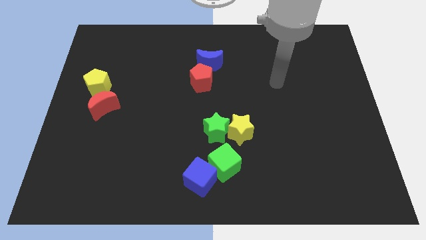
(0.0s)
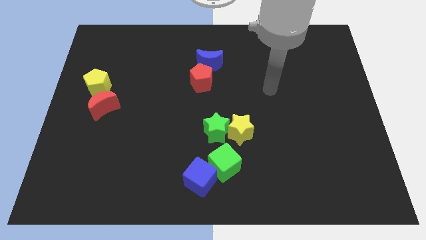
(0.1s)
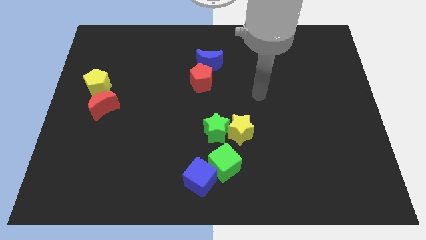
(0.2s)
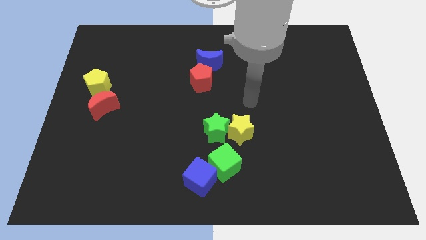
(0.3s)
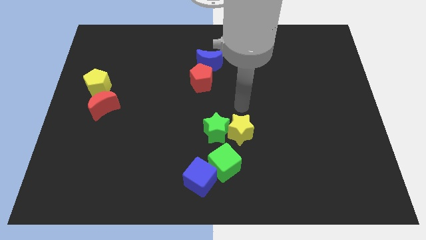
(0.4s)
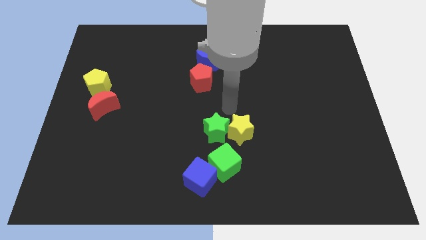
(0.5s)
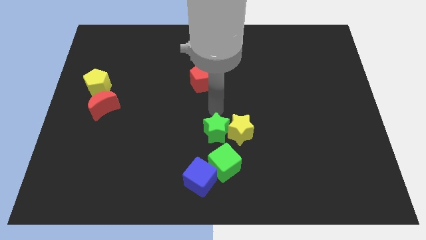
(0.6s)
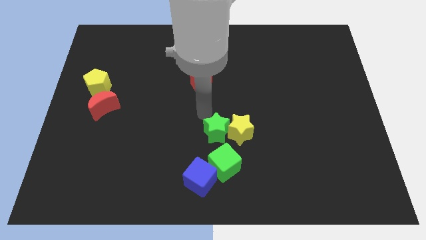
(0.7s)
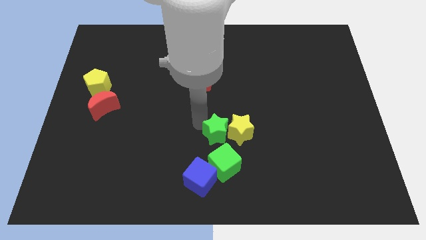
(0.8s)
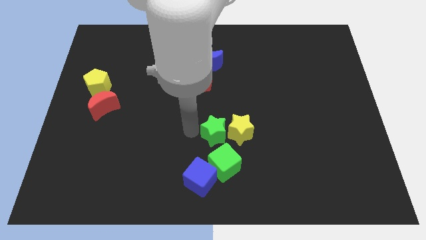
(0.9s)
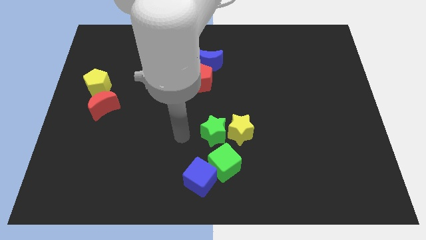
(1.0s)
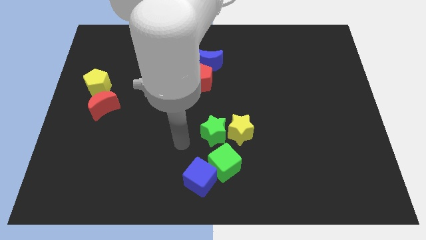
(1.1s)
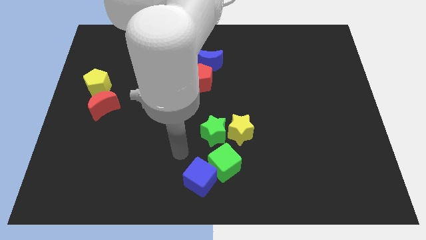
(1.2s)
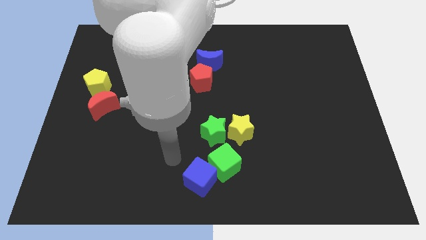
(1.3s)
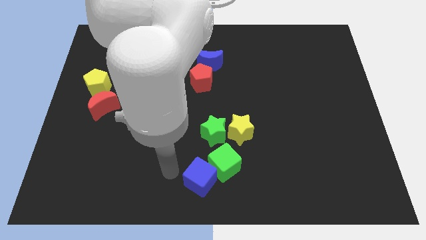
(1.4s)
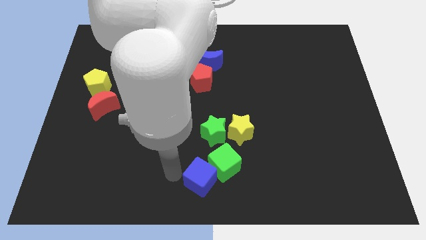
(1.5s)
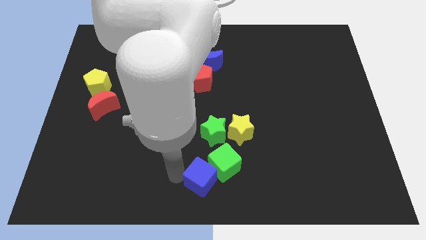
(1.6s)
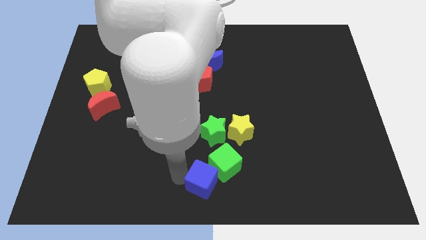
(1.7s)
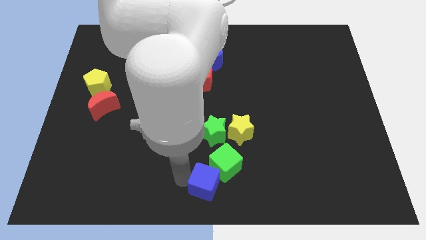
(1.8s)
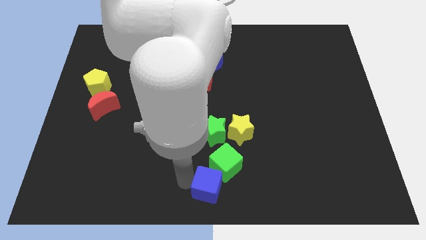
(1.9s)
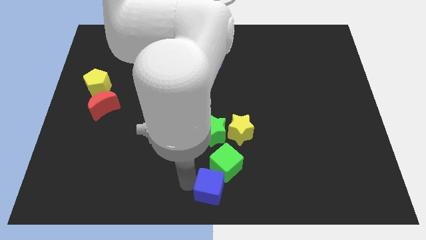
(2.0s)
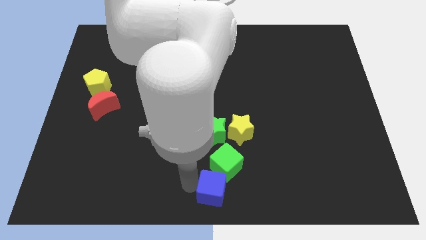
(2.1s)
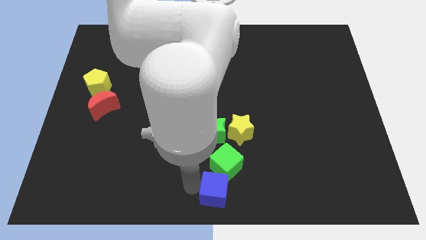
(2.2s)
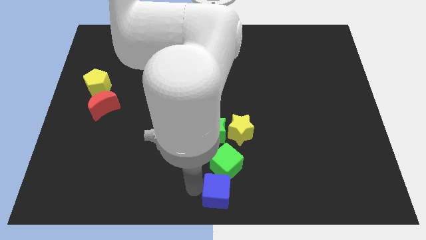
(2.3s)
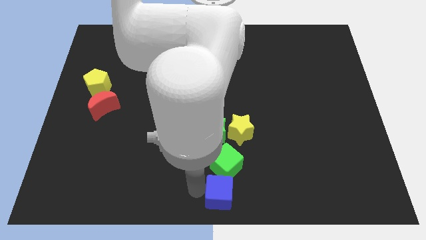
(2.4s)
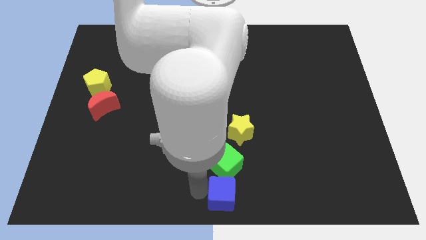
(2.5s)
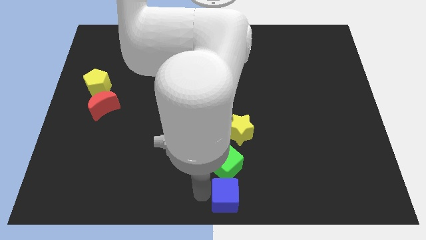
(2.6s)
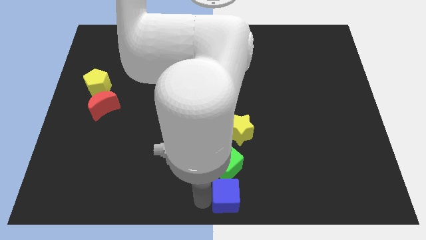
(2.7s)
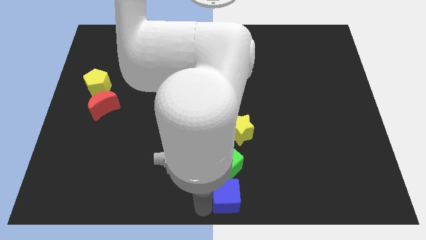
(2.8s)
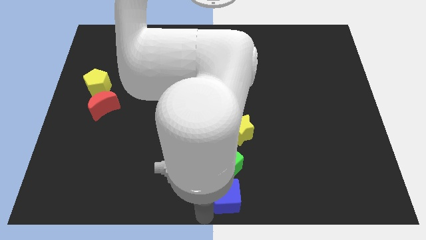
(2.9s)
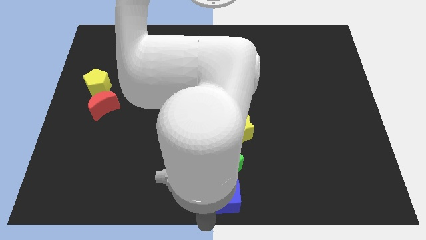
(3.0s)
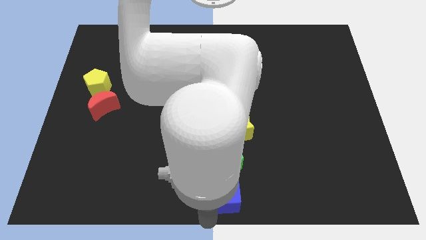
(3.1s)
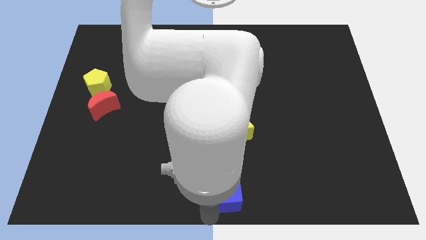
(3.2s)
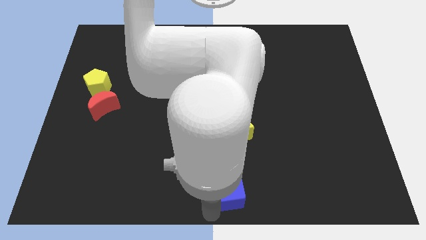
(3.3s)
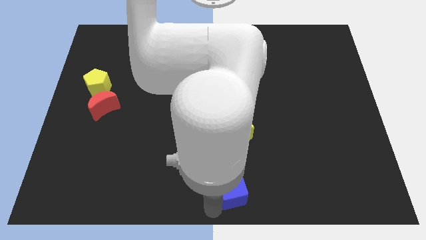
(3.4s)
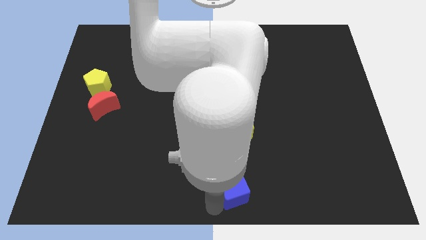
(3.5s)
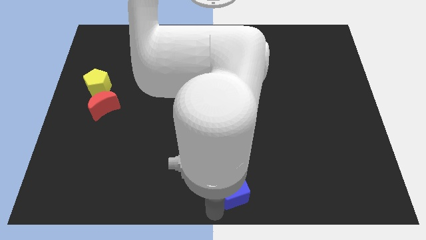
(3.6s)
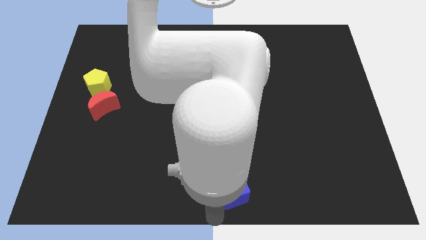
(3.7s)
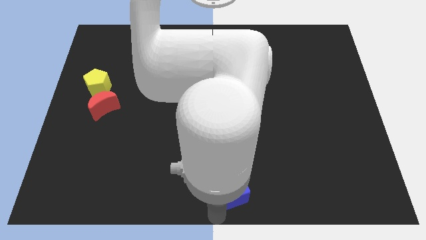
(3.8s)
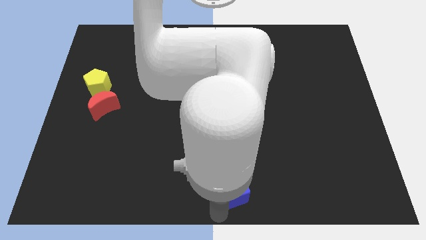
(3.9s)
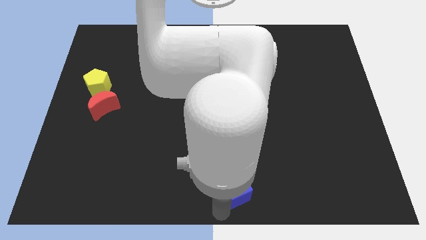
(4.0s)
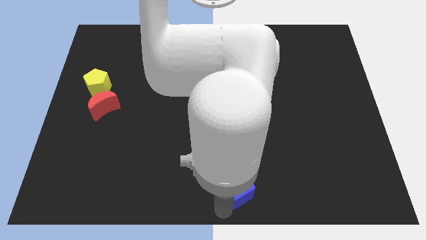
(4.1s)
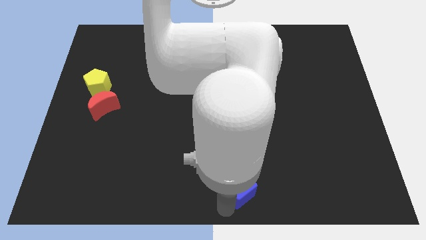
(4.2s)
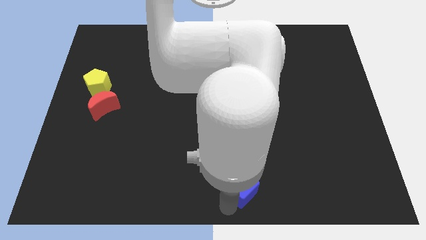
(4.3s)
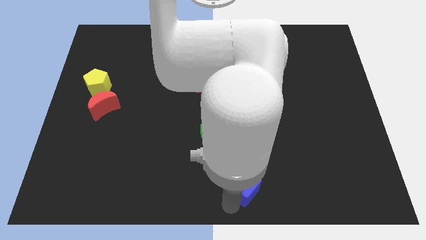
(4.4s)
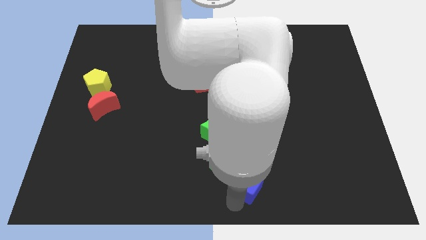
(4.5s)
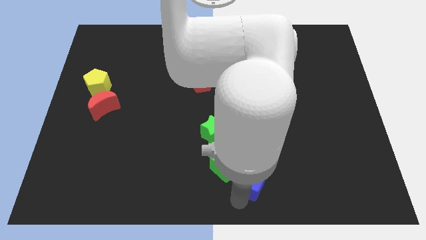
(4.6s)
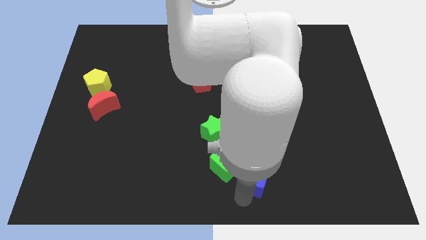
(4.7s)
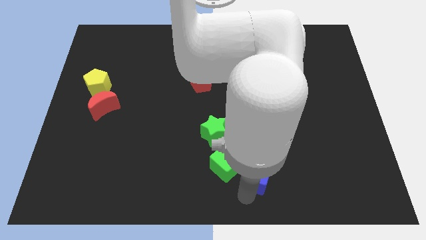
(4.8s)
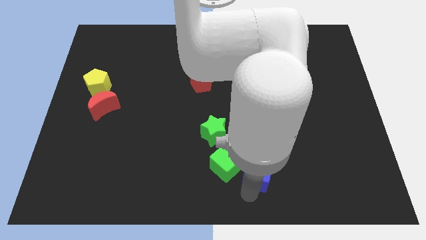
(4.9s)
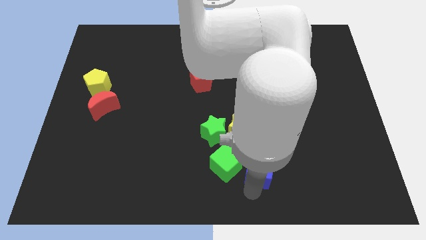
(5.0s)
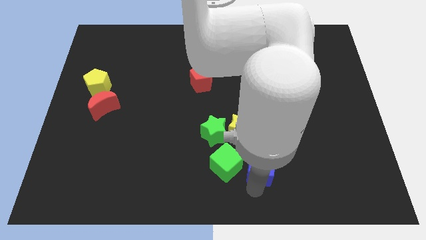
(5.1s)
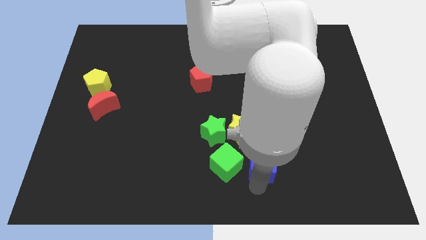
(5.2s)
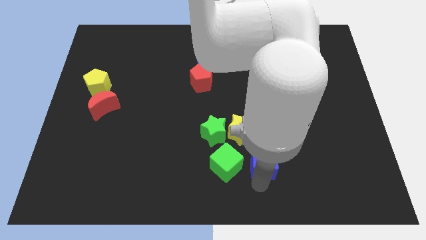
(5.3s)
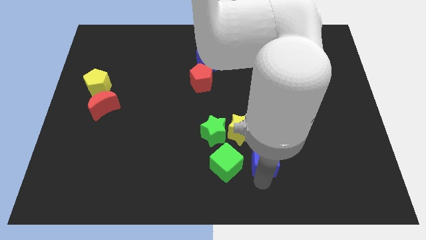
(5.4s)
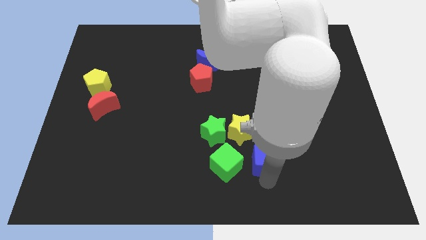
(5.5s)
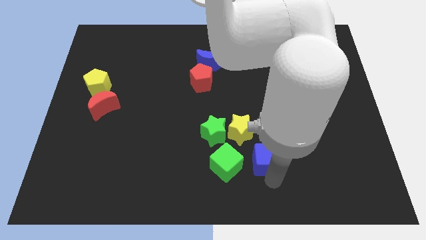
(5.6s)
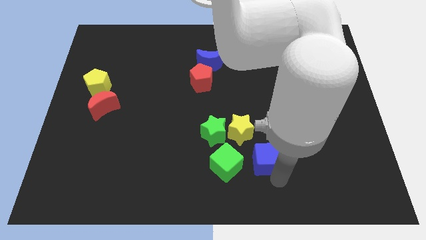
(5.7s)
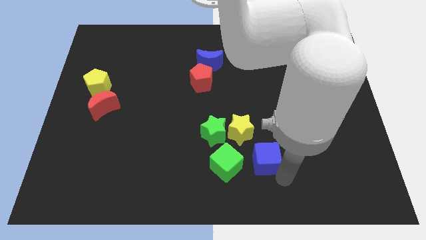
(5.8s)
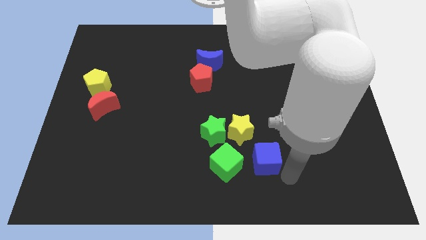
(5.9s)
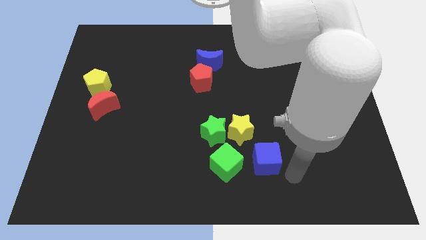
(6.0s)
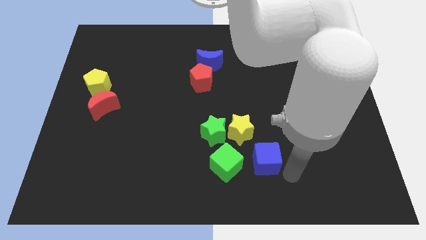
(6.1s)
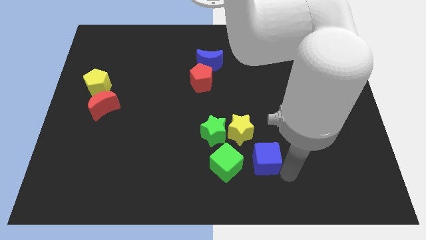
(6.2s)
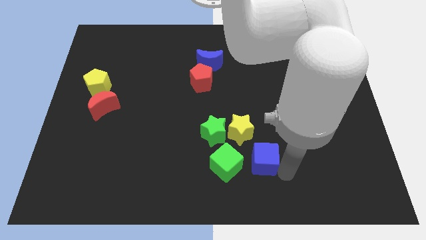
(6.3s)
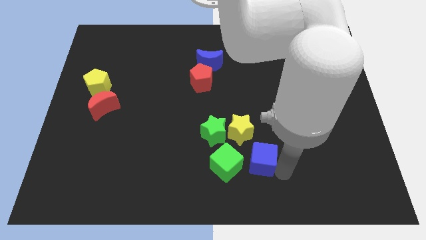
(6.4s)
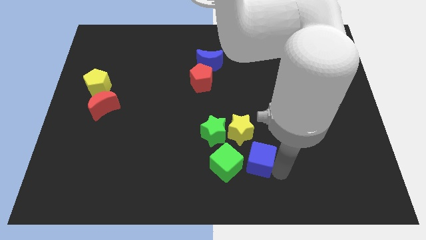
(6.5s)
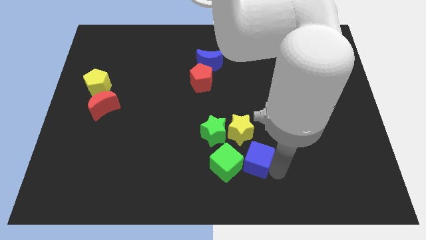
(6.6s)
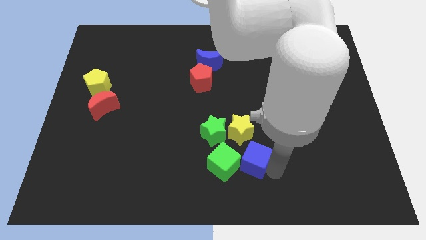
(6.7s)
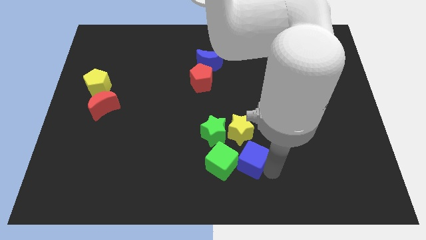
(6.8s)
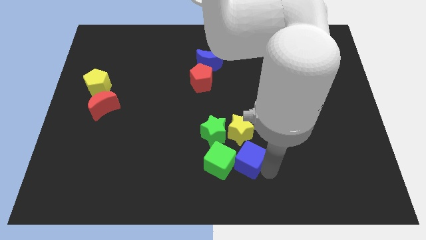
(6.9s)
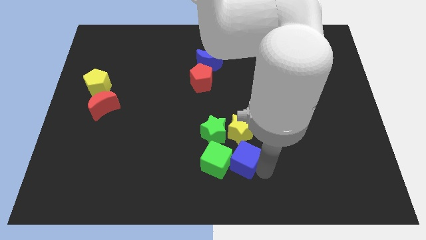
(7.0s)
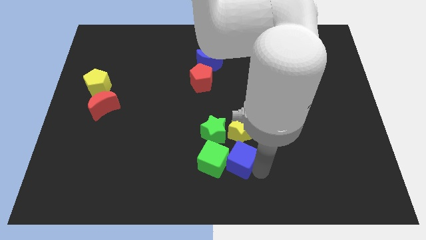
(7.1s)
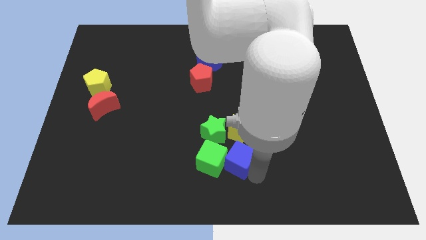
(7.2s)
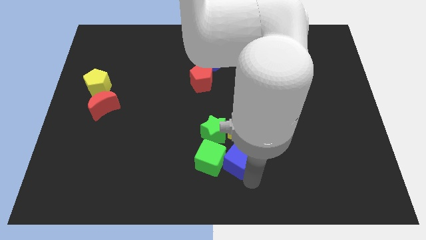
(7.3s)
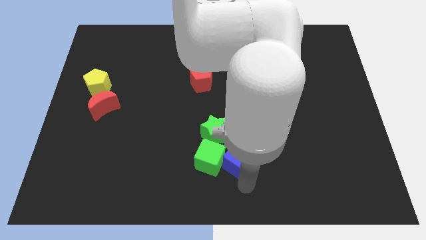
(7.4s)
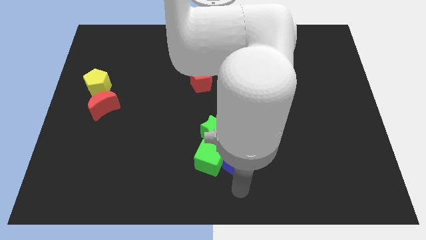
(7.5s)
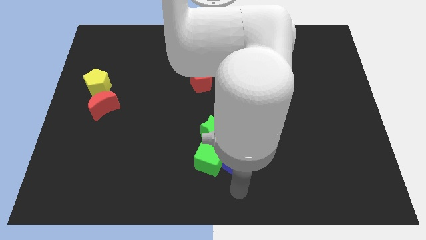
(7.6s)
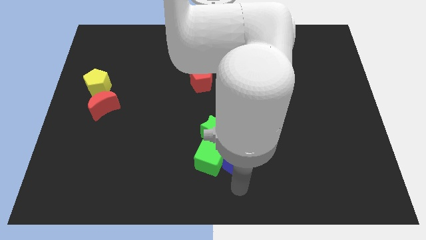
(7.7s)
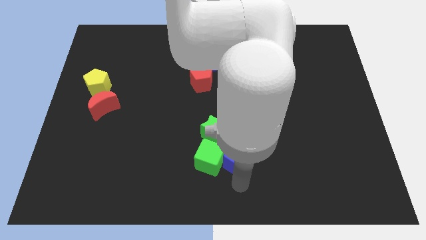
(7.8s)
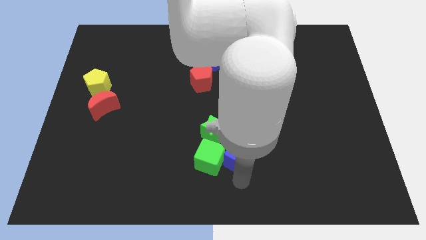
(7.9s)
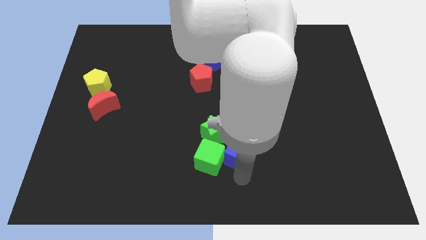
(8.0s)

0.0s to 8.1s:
push the blue cube to the yellow star
